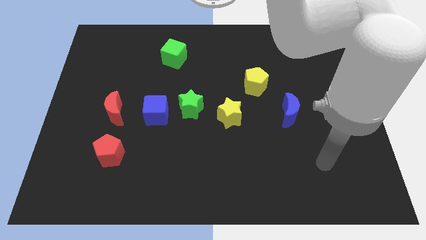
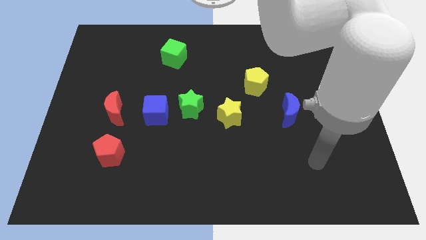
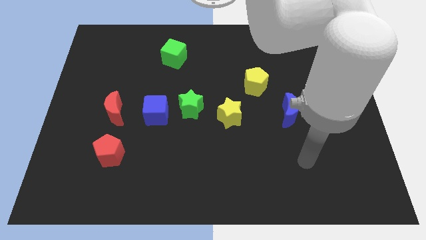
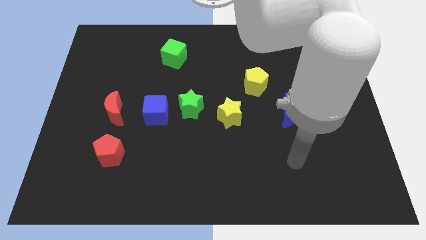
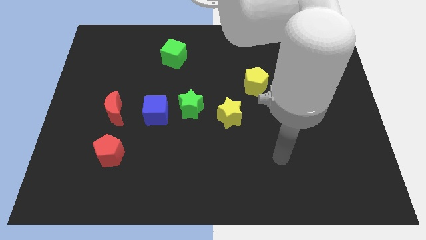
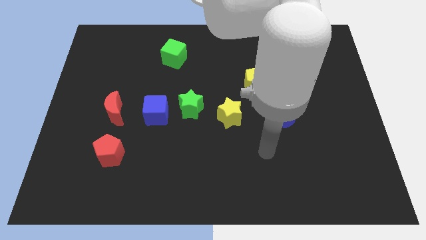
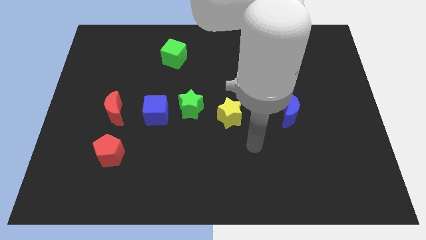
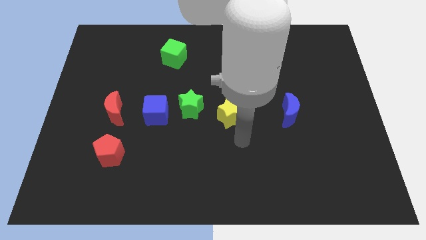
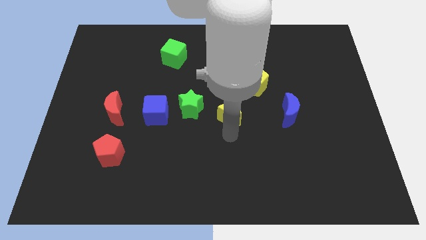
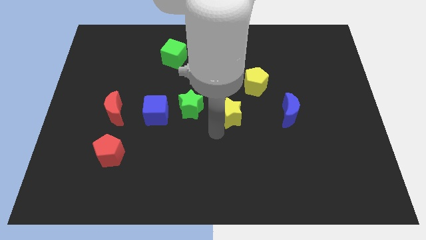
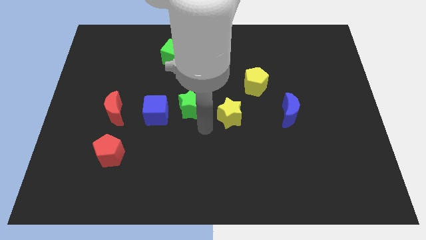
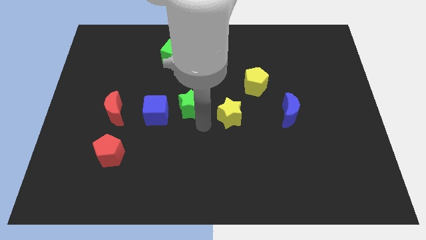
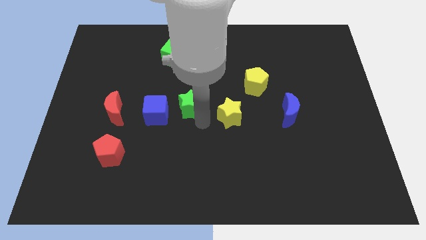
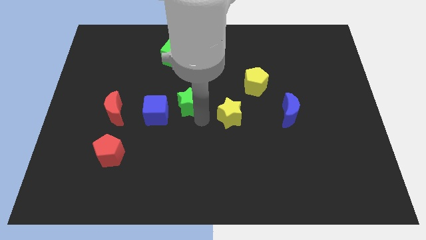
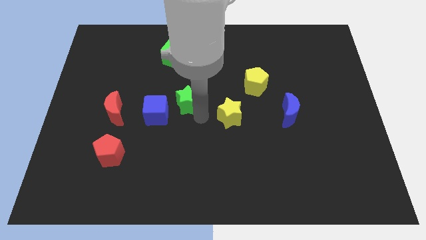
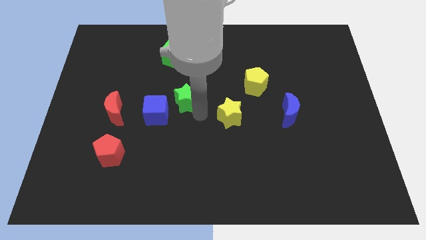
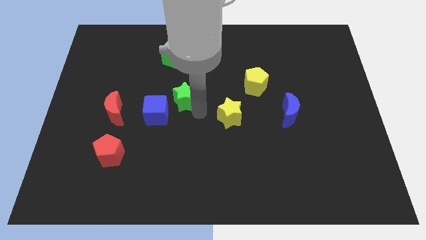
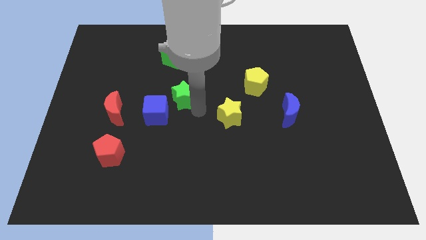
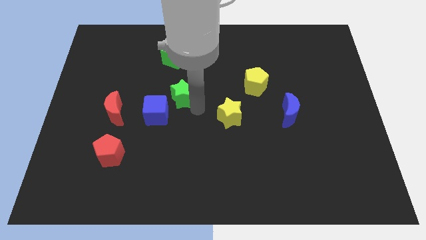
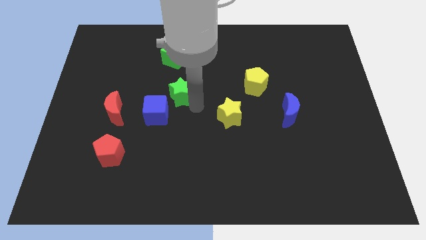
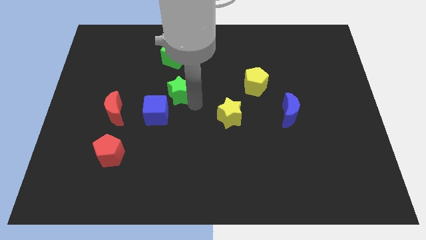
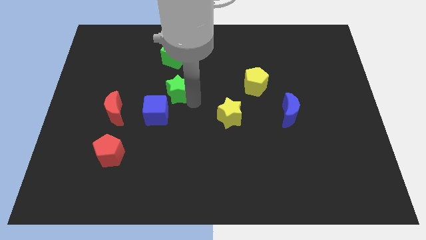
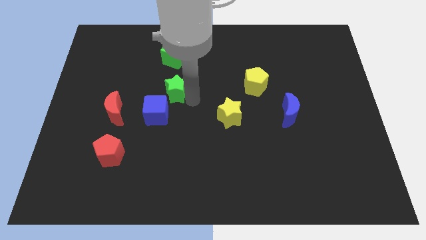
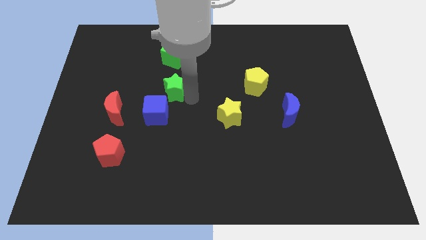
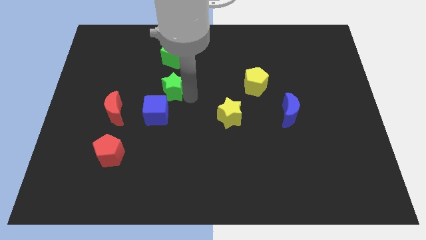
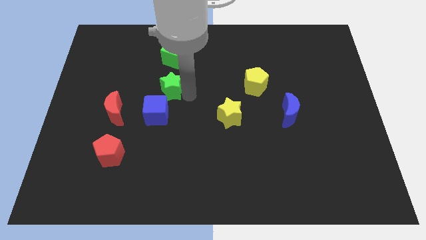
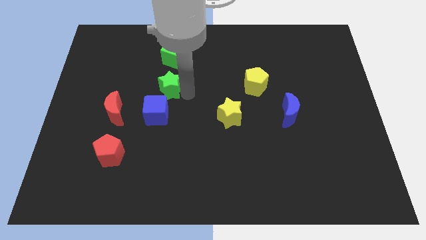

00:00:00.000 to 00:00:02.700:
move the green star away from the blue cube and yellow star

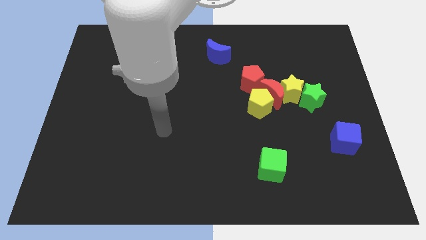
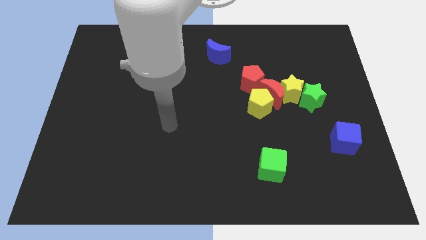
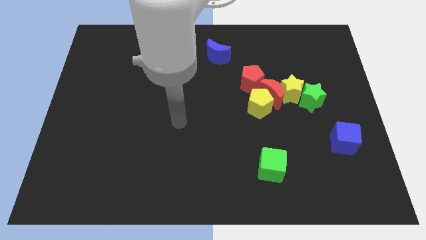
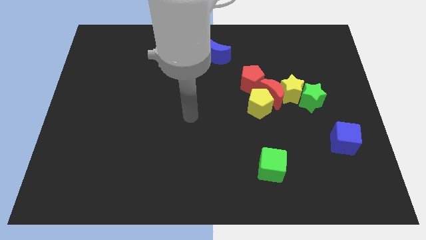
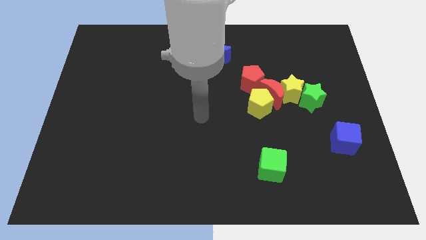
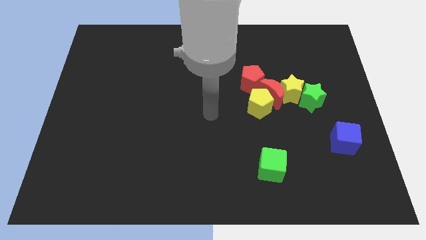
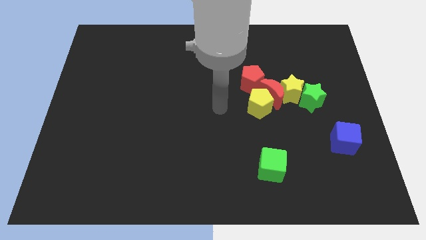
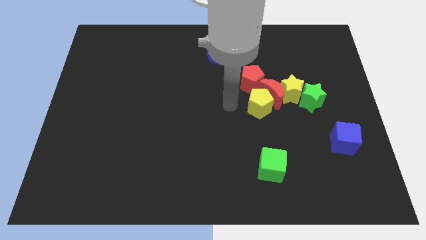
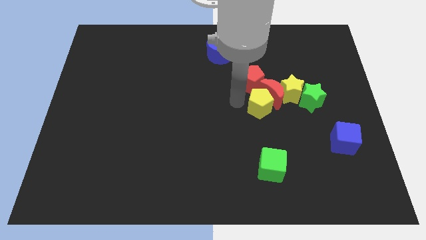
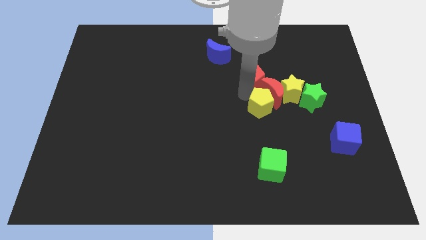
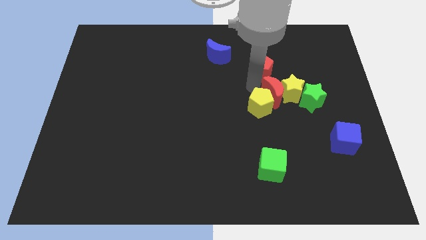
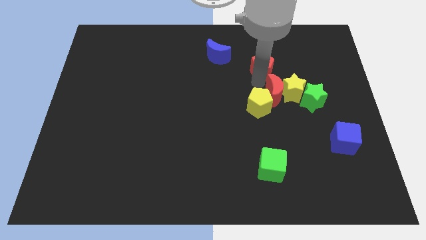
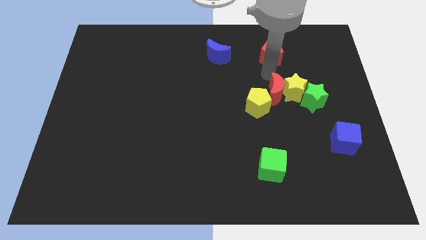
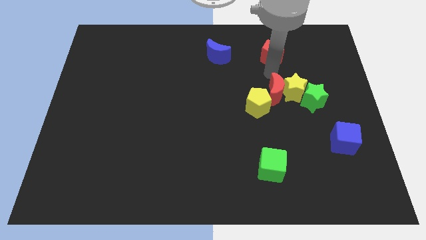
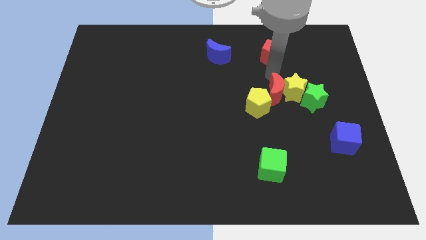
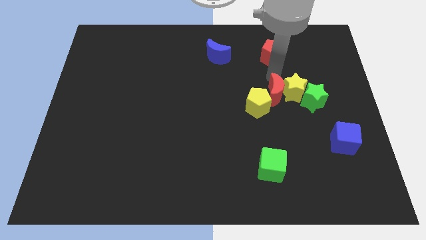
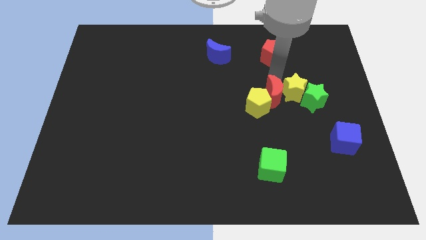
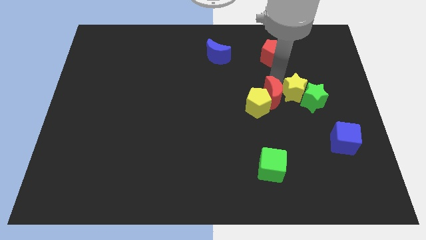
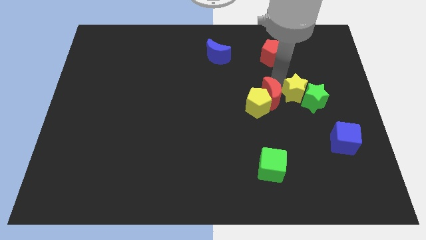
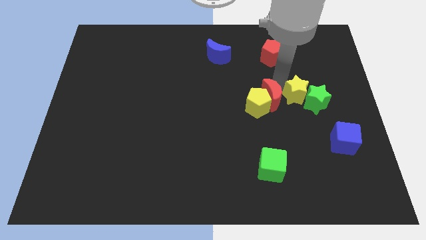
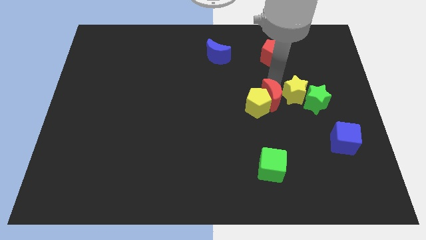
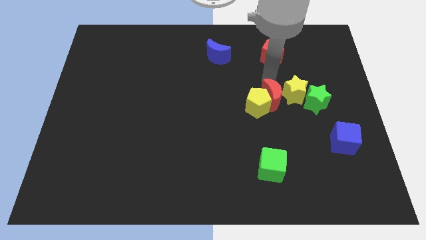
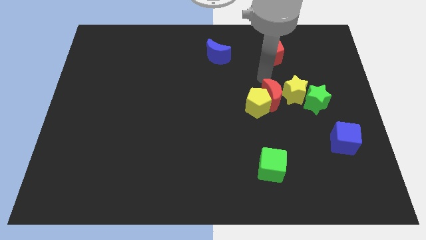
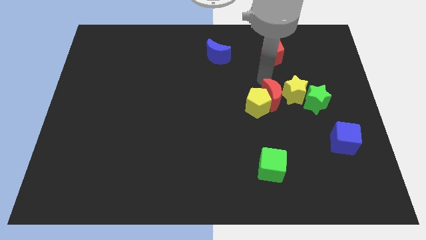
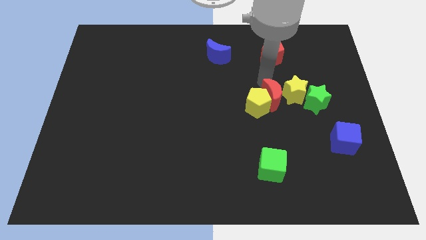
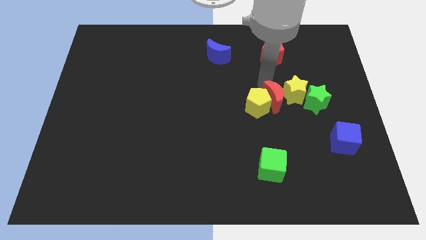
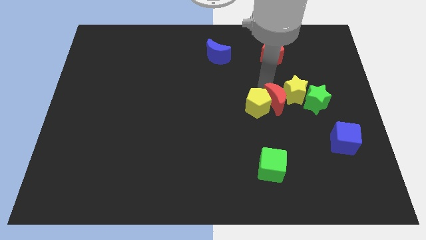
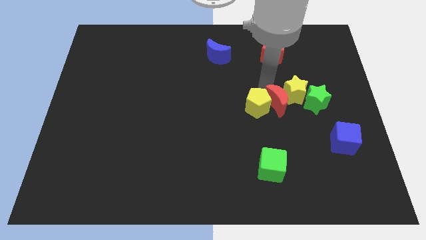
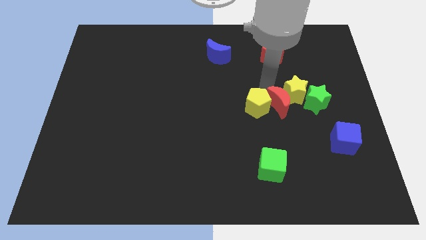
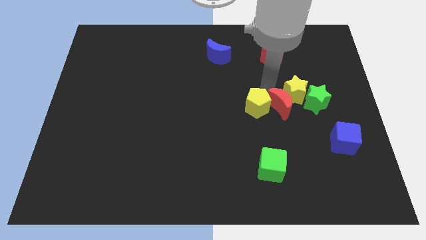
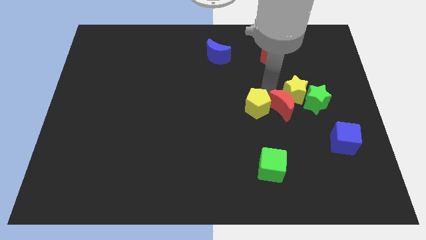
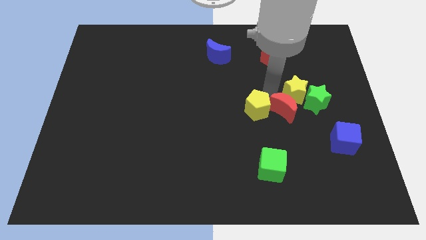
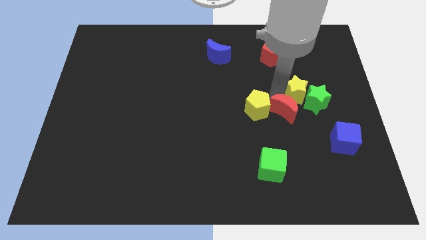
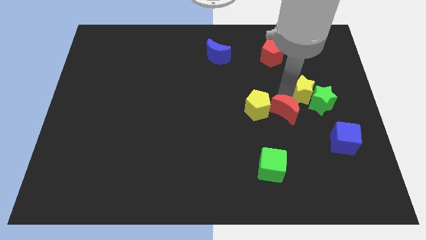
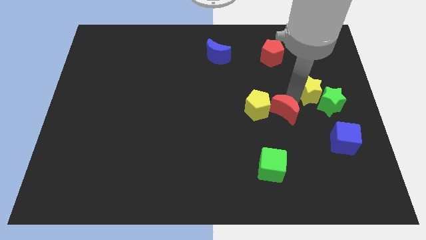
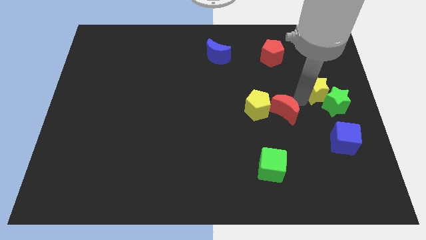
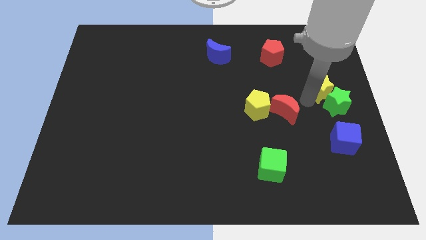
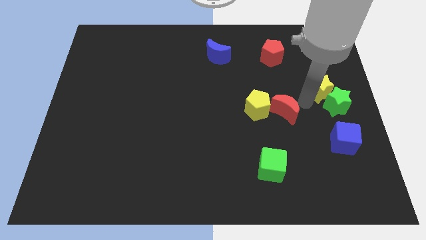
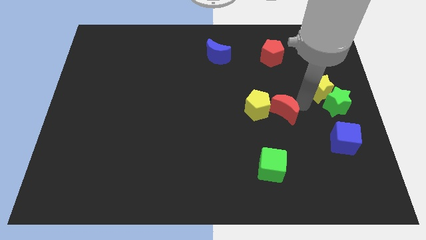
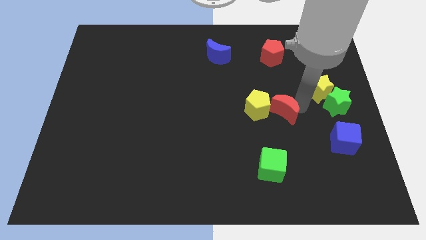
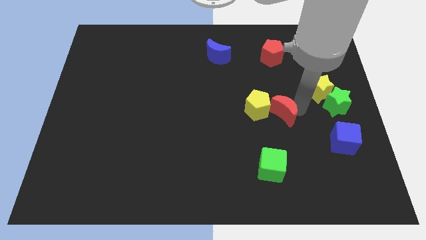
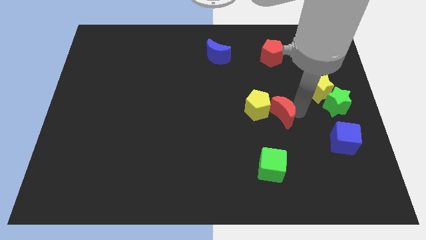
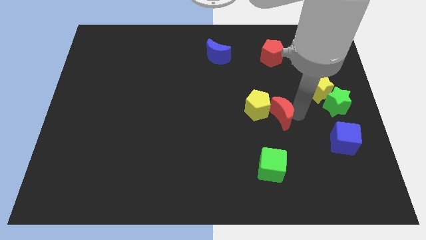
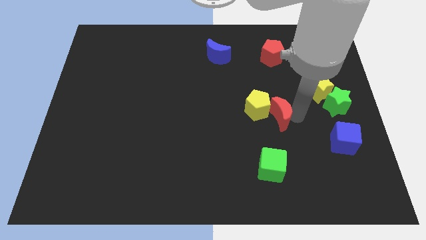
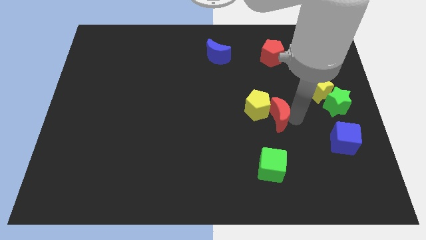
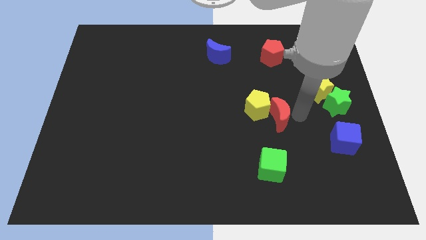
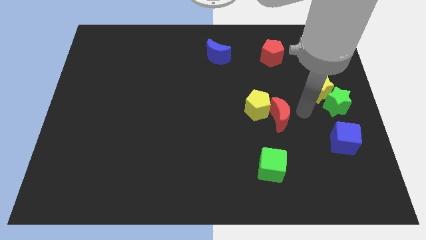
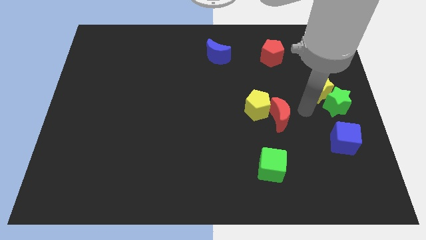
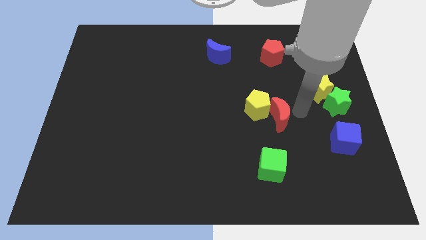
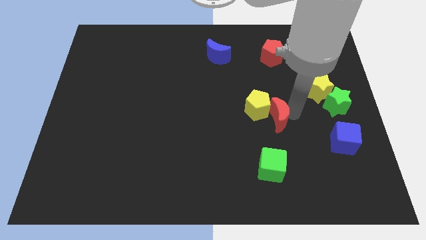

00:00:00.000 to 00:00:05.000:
pull the red moon apart from the group of blocks

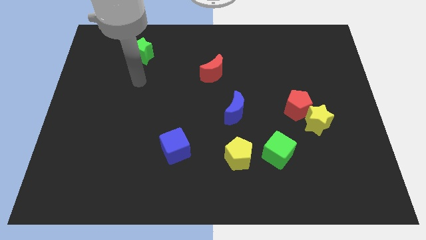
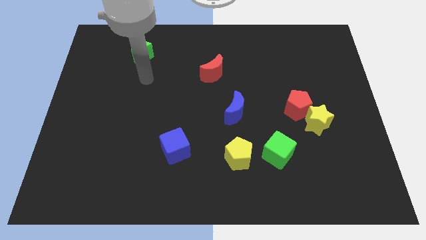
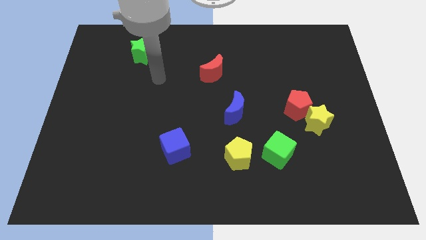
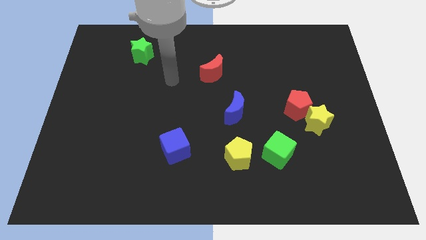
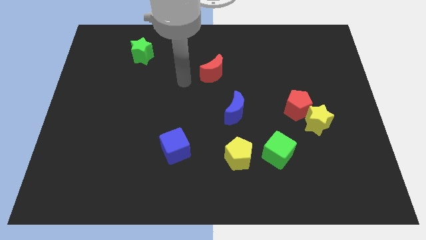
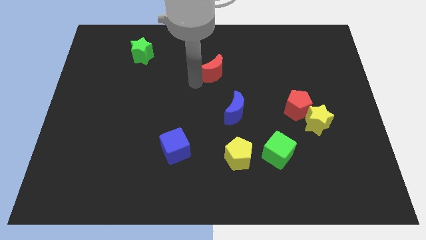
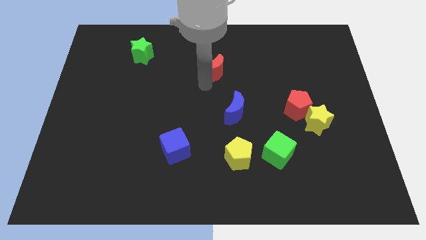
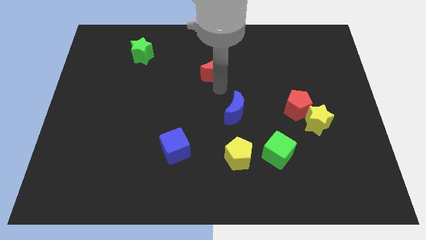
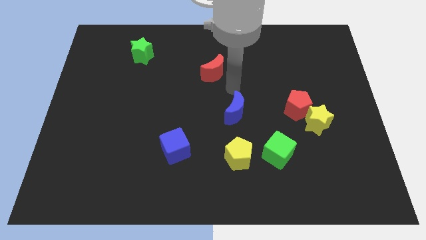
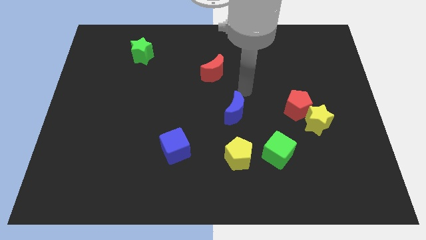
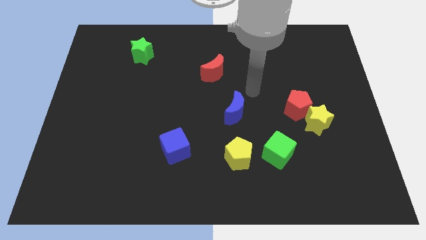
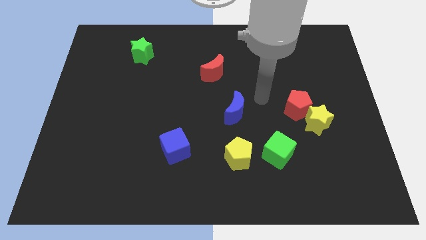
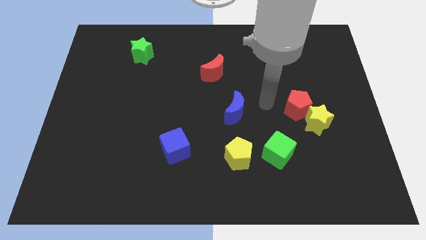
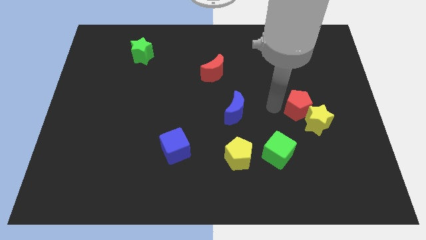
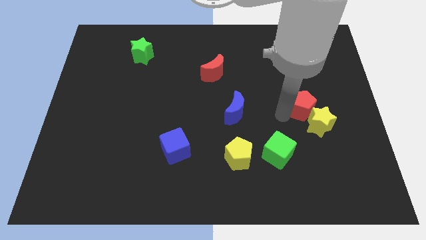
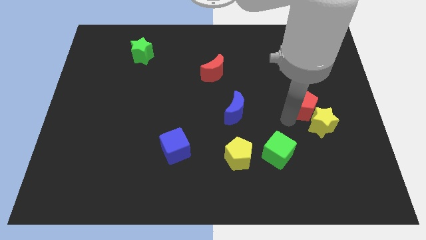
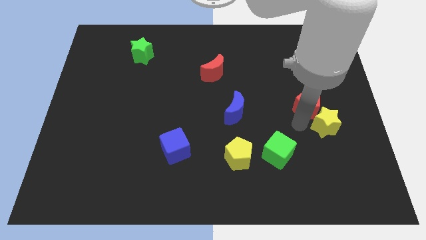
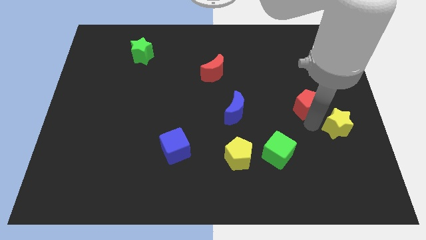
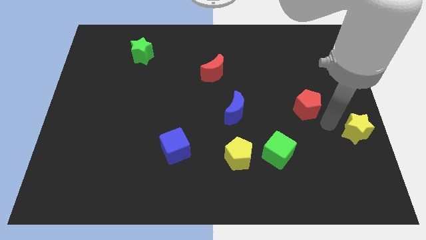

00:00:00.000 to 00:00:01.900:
move the red pentagon away from the yellow star
